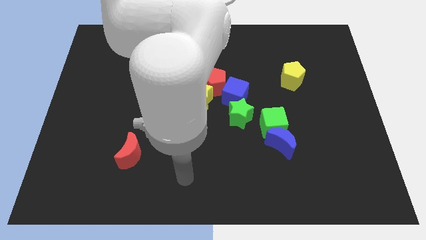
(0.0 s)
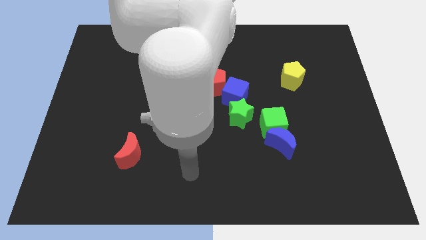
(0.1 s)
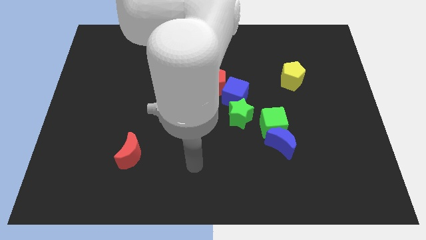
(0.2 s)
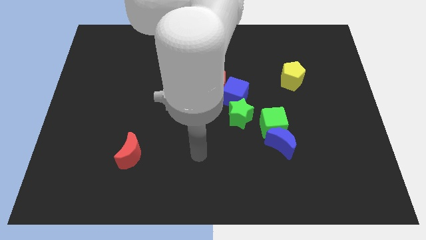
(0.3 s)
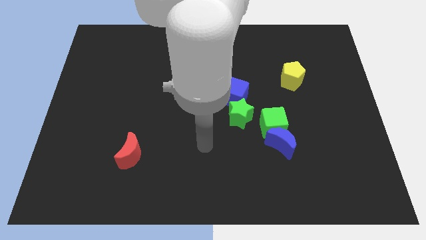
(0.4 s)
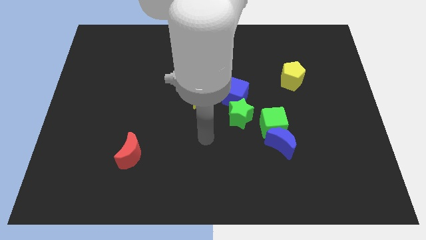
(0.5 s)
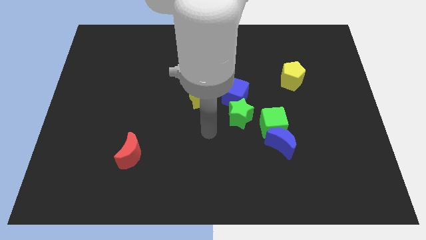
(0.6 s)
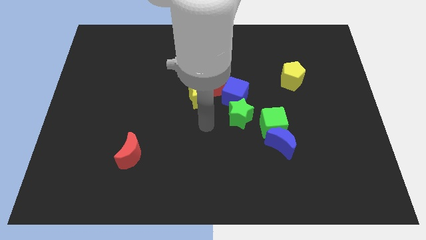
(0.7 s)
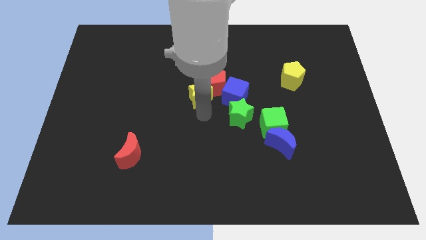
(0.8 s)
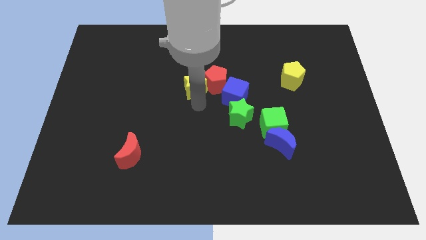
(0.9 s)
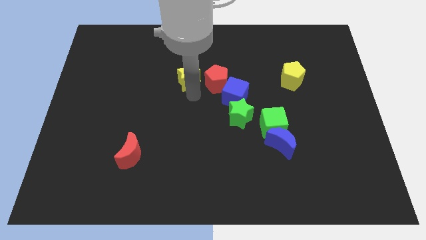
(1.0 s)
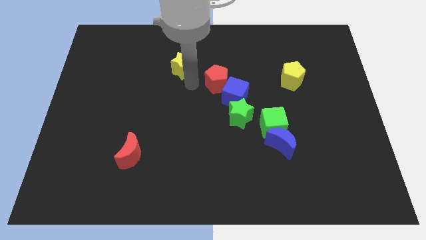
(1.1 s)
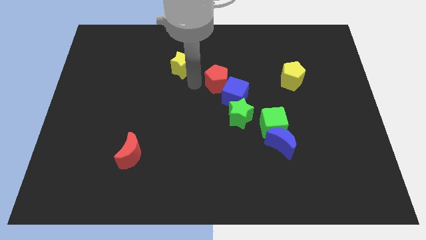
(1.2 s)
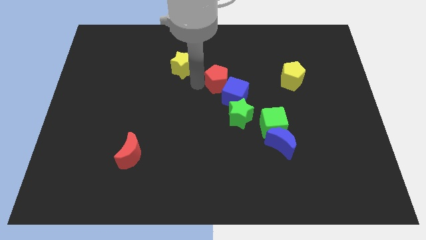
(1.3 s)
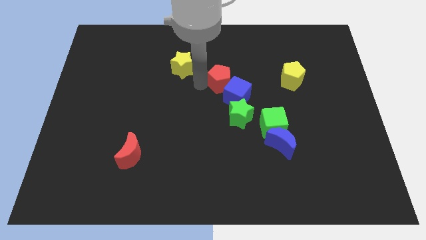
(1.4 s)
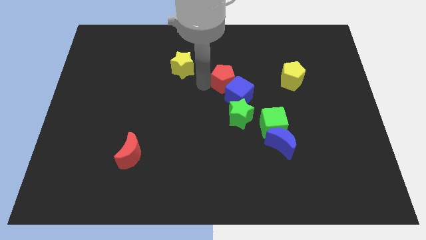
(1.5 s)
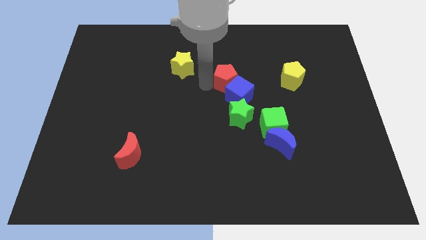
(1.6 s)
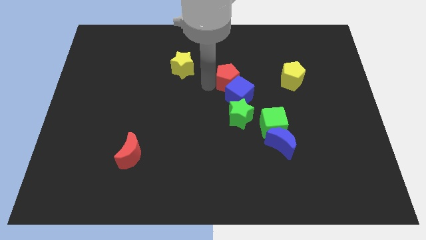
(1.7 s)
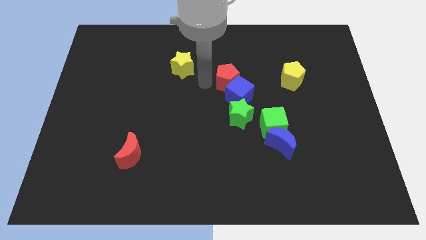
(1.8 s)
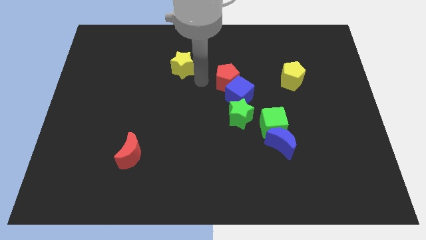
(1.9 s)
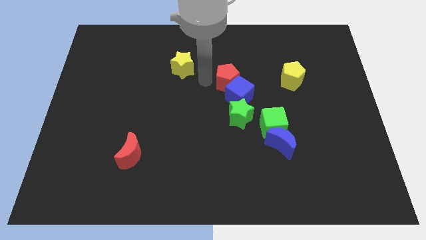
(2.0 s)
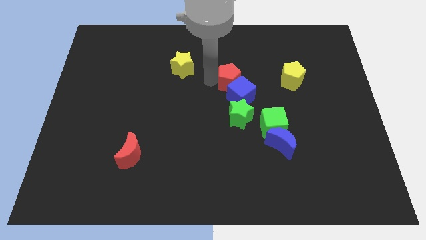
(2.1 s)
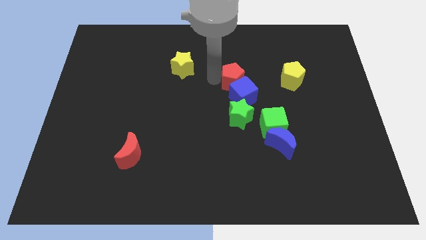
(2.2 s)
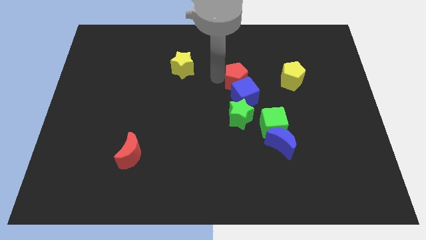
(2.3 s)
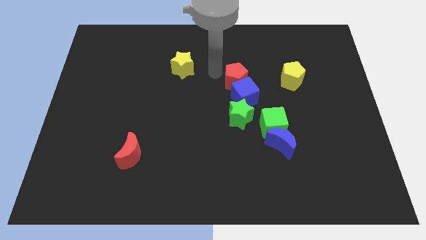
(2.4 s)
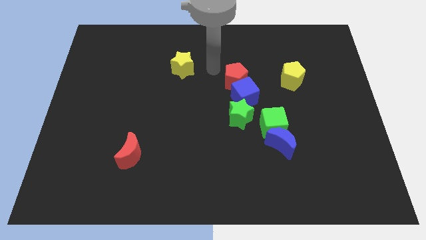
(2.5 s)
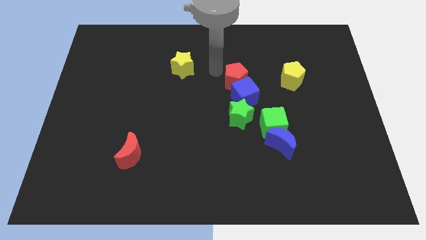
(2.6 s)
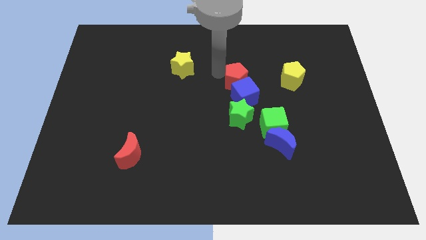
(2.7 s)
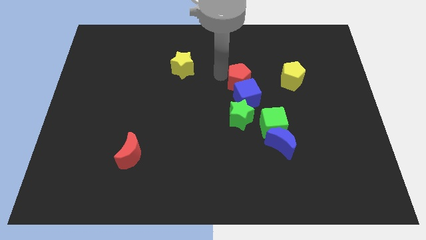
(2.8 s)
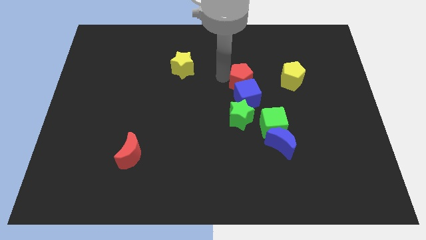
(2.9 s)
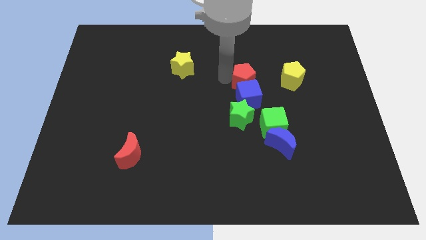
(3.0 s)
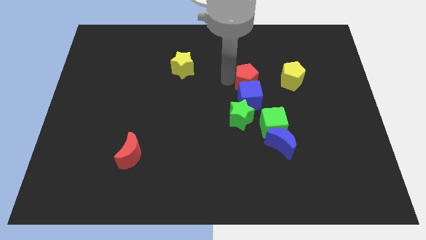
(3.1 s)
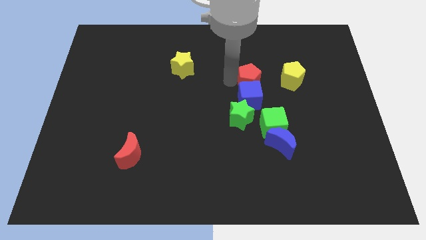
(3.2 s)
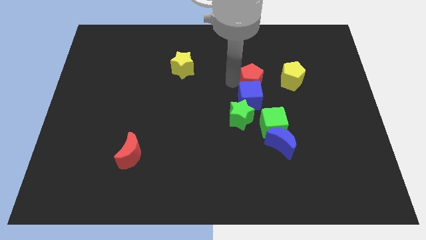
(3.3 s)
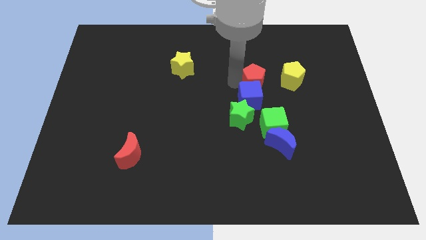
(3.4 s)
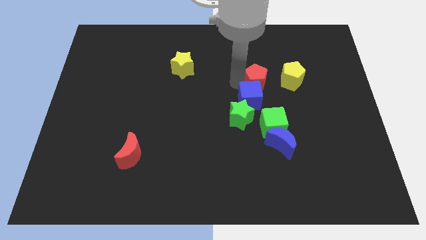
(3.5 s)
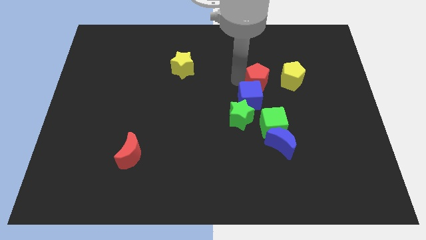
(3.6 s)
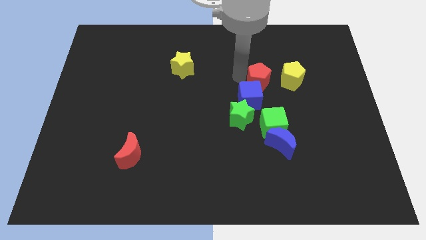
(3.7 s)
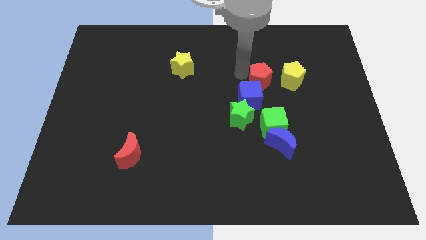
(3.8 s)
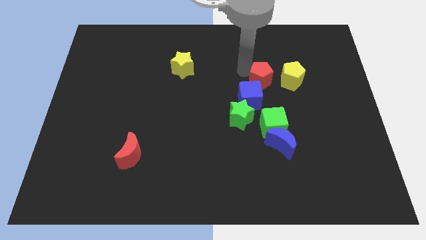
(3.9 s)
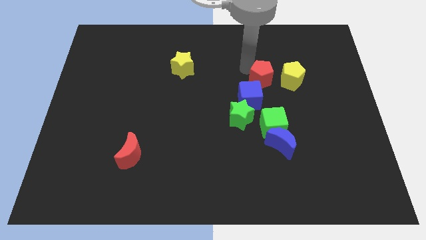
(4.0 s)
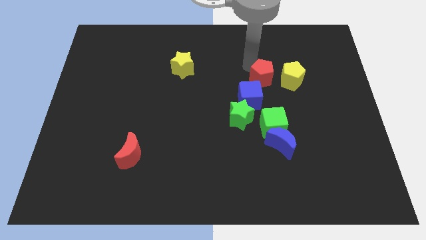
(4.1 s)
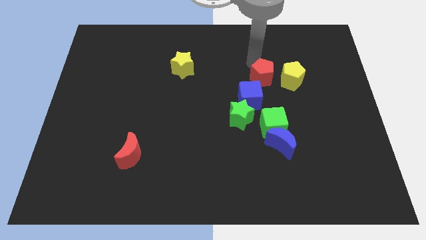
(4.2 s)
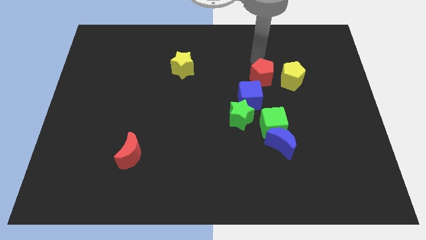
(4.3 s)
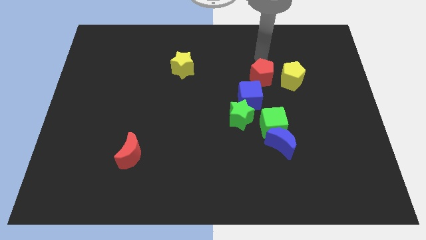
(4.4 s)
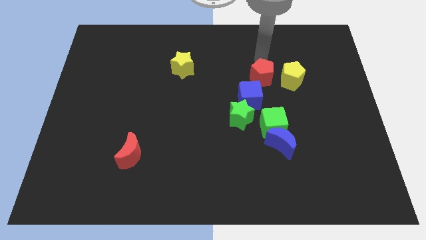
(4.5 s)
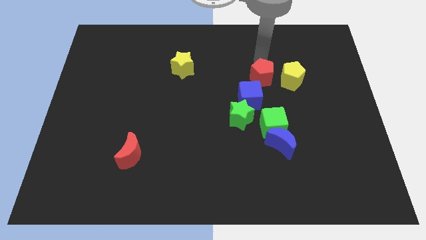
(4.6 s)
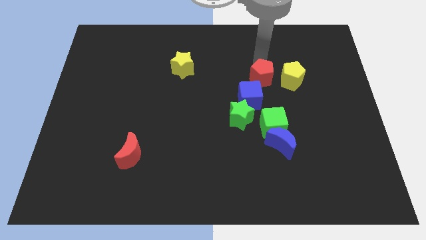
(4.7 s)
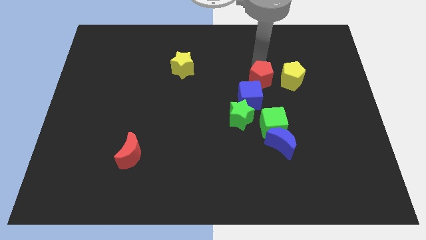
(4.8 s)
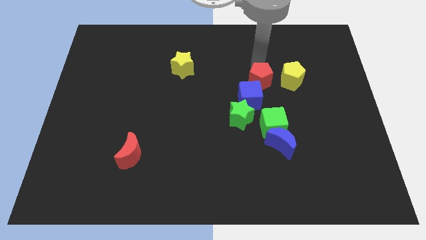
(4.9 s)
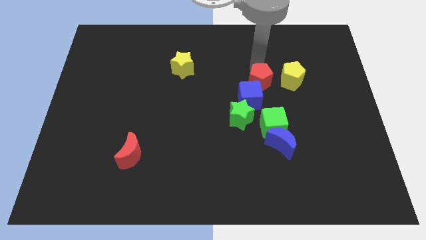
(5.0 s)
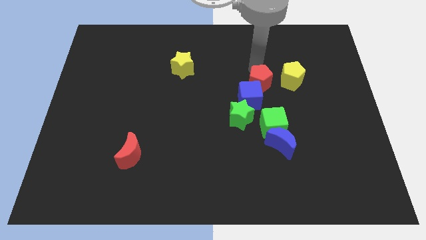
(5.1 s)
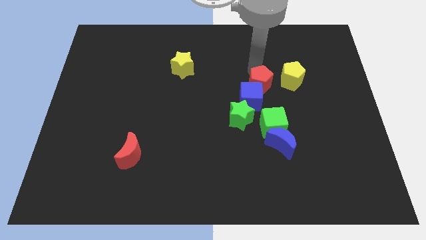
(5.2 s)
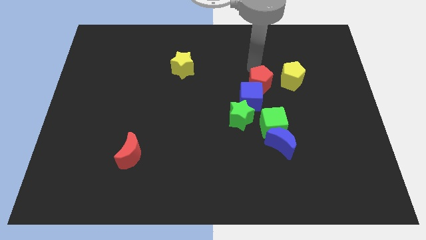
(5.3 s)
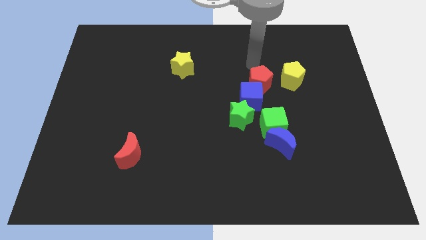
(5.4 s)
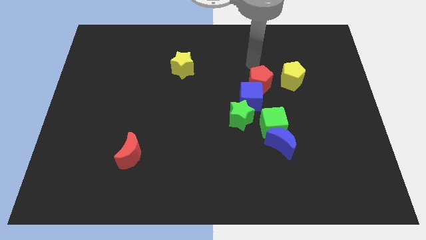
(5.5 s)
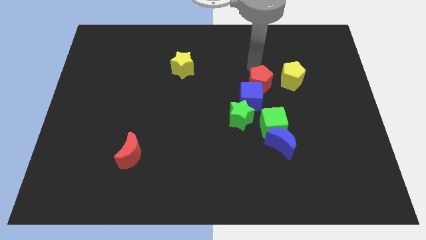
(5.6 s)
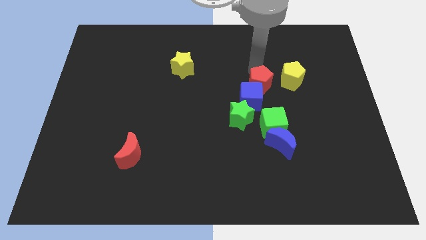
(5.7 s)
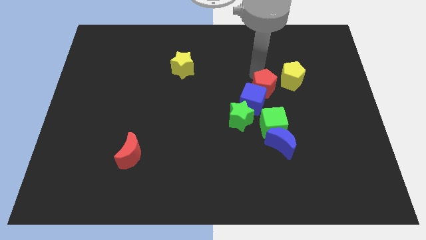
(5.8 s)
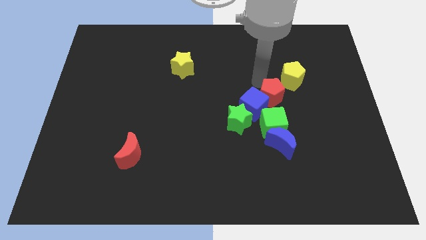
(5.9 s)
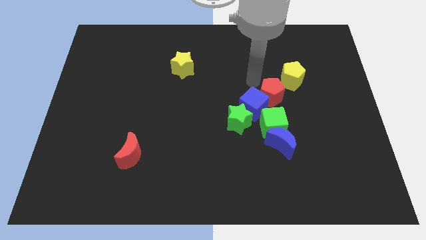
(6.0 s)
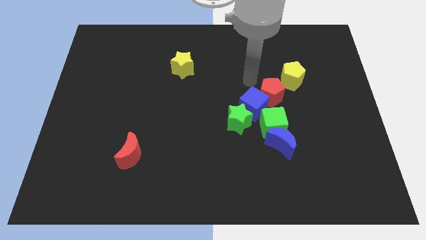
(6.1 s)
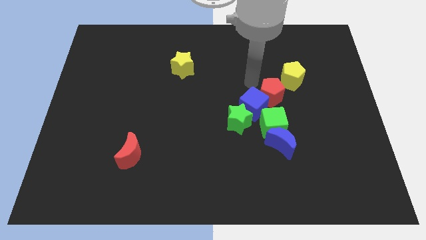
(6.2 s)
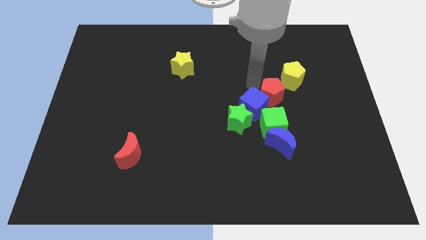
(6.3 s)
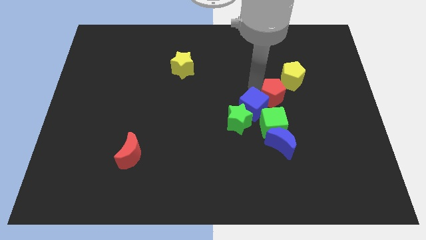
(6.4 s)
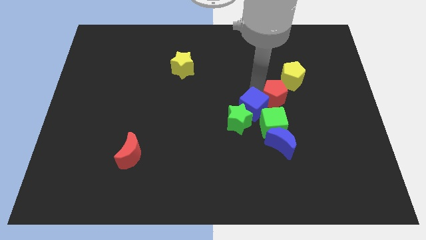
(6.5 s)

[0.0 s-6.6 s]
put the red pentagon below the yellow pentagon

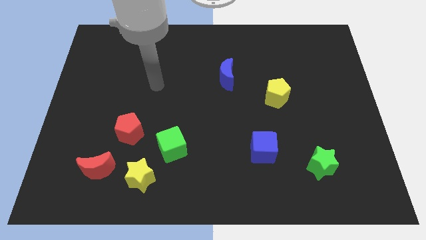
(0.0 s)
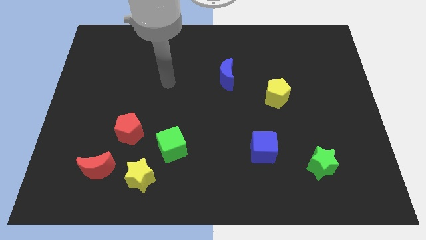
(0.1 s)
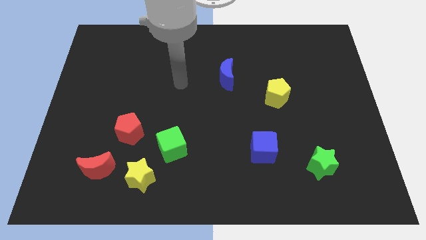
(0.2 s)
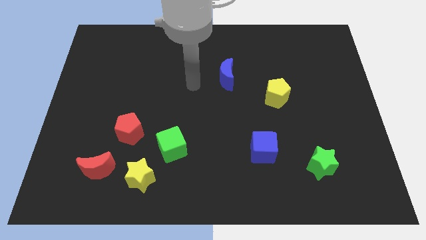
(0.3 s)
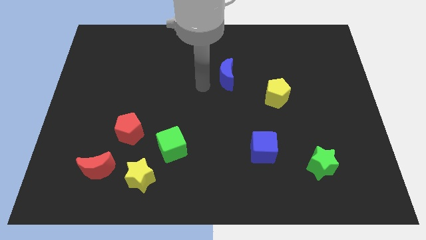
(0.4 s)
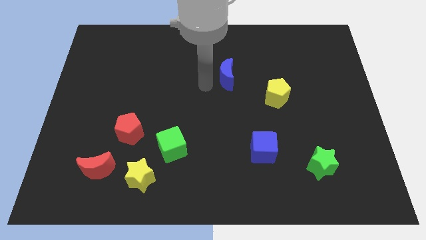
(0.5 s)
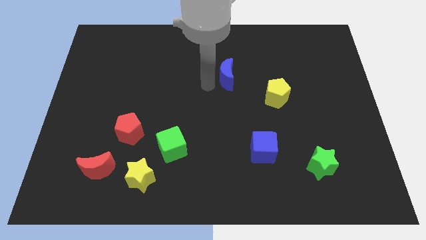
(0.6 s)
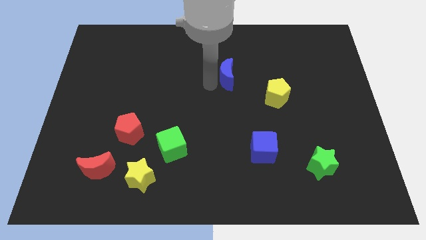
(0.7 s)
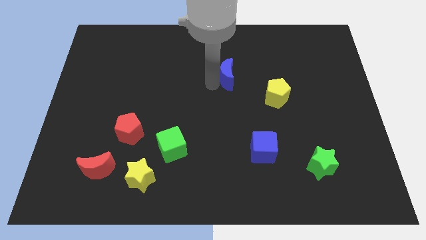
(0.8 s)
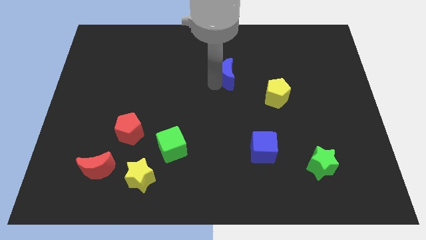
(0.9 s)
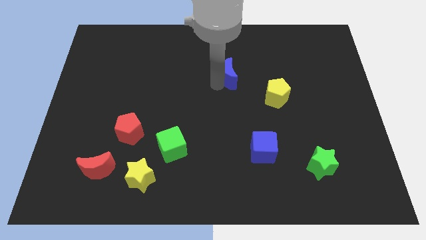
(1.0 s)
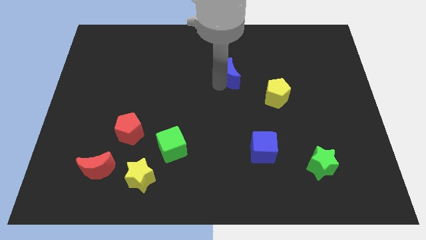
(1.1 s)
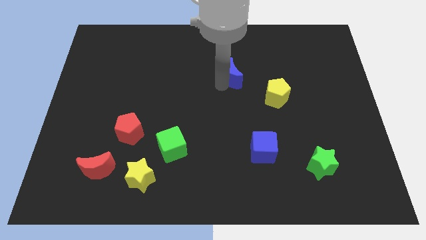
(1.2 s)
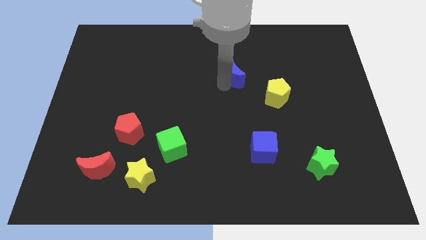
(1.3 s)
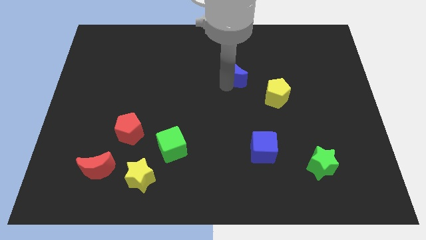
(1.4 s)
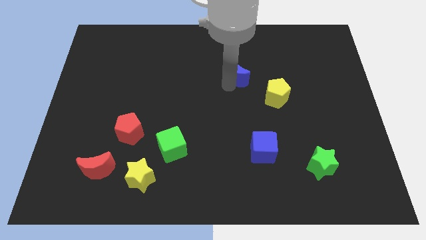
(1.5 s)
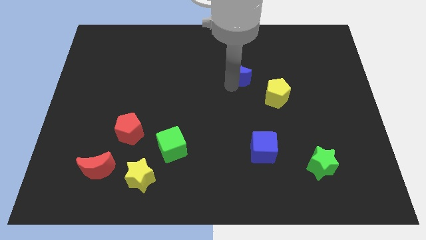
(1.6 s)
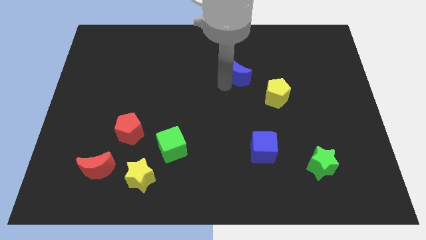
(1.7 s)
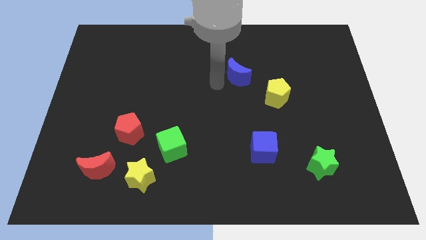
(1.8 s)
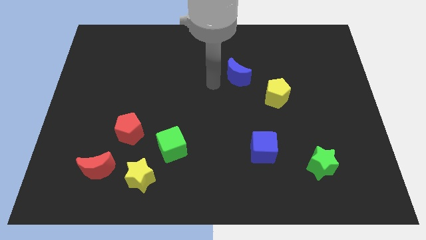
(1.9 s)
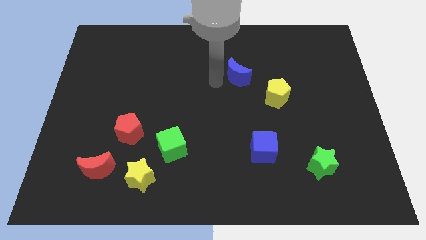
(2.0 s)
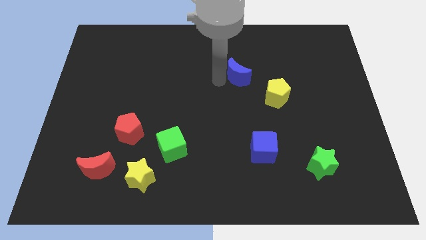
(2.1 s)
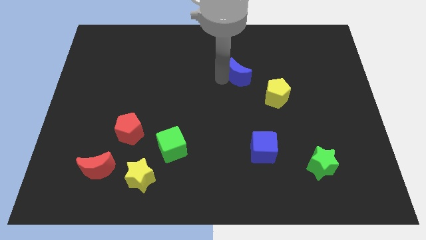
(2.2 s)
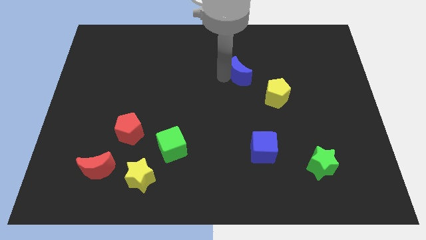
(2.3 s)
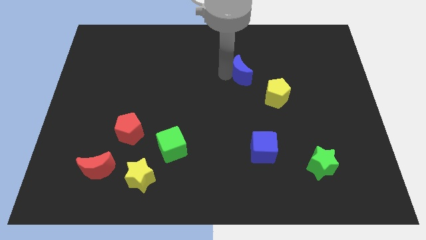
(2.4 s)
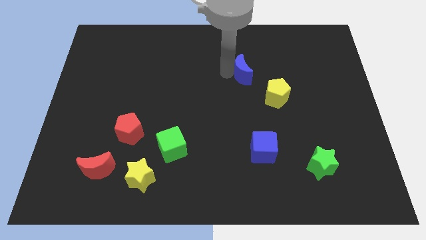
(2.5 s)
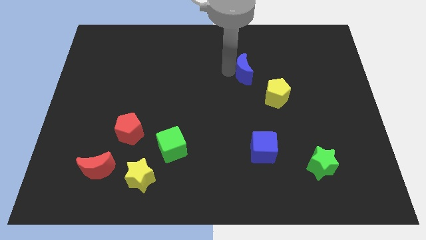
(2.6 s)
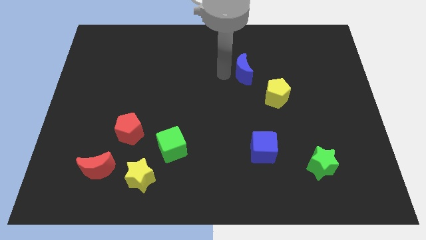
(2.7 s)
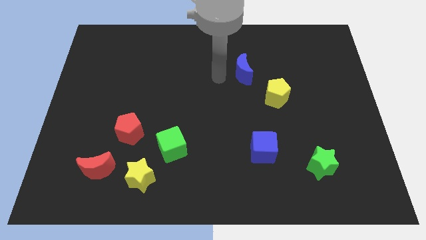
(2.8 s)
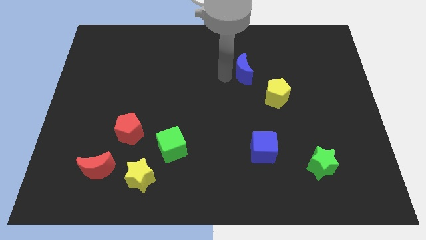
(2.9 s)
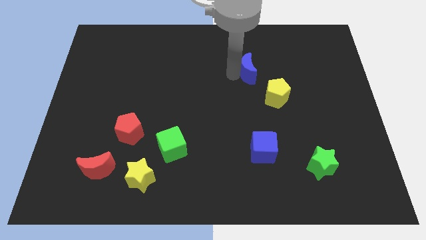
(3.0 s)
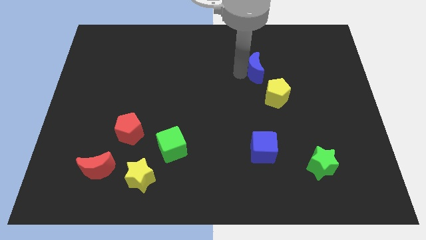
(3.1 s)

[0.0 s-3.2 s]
move the blue moon above the yellow pentagon
